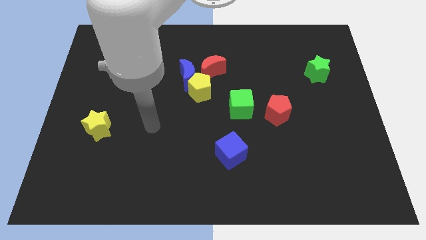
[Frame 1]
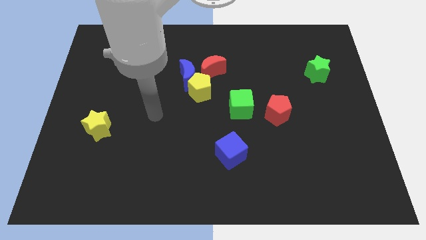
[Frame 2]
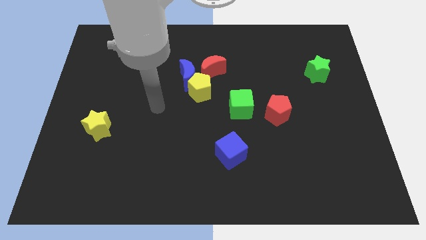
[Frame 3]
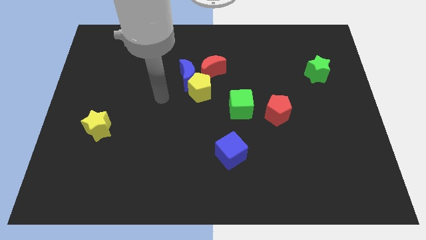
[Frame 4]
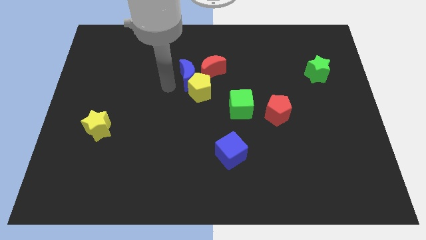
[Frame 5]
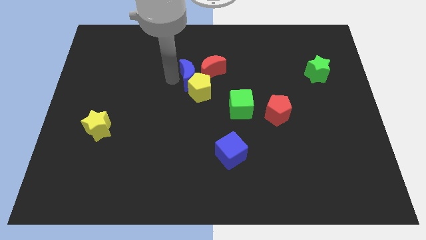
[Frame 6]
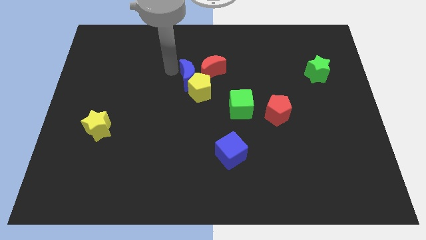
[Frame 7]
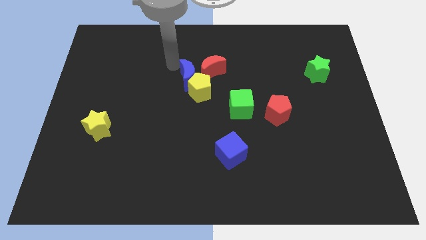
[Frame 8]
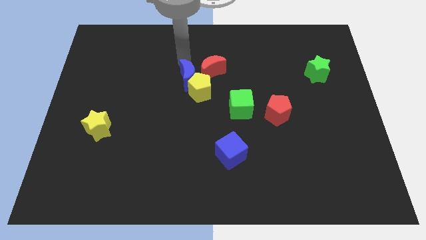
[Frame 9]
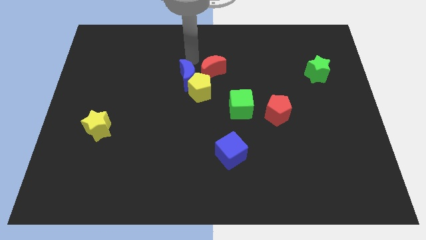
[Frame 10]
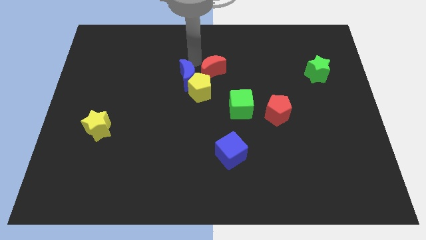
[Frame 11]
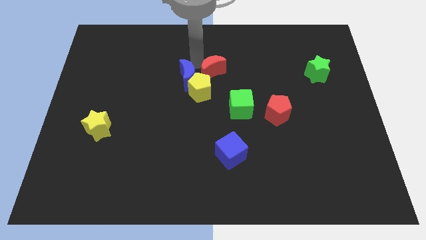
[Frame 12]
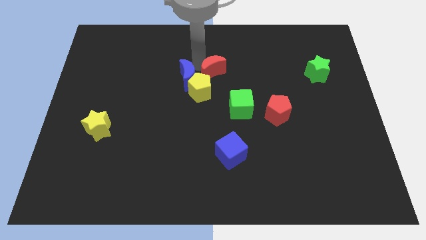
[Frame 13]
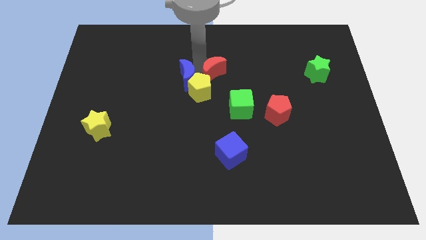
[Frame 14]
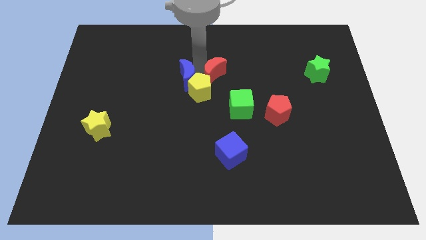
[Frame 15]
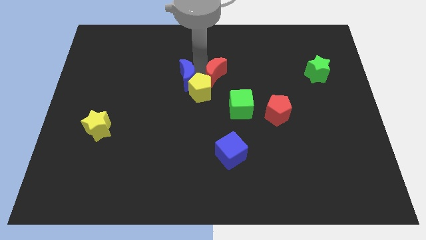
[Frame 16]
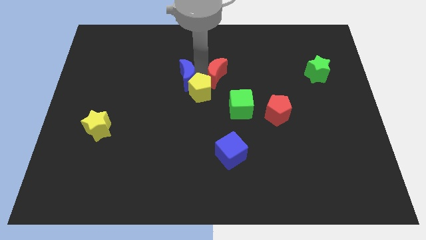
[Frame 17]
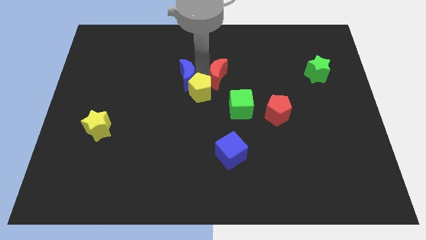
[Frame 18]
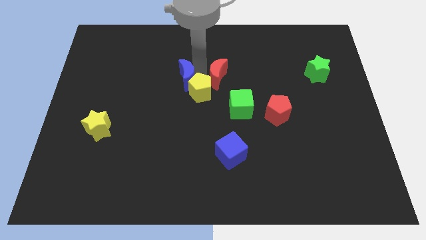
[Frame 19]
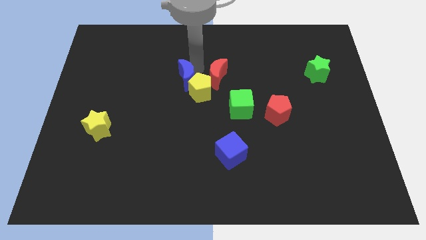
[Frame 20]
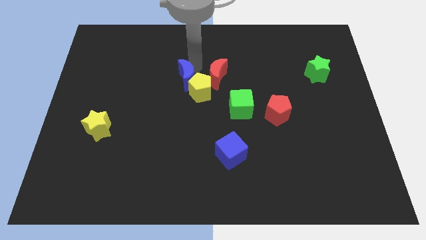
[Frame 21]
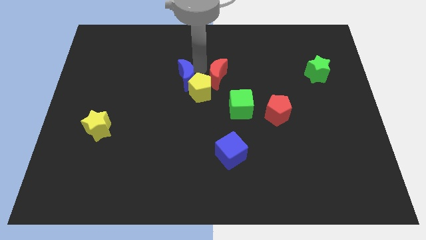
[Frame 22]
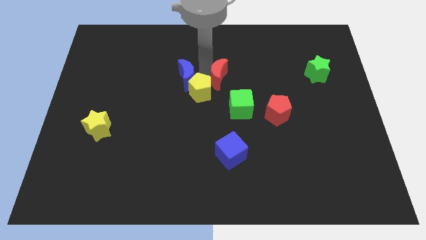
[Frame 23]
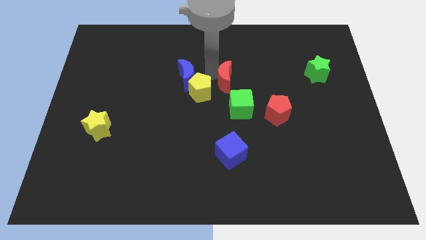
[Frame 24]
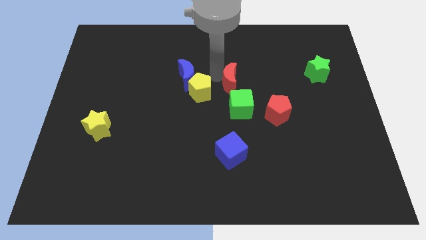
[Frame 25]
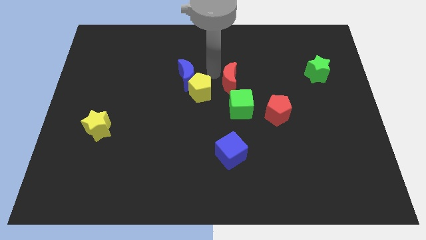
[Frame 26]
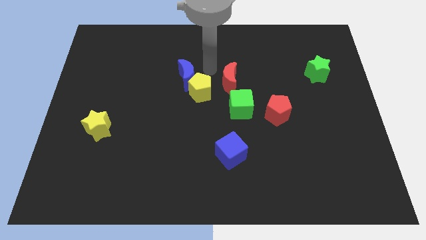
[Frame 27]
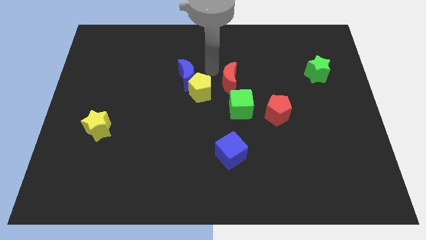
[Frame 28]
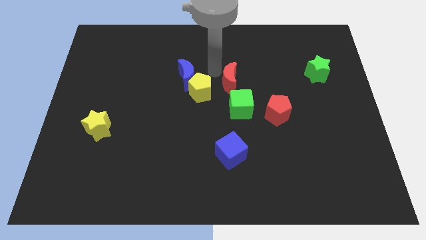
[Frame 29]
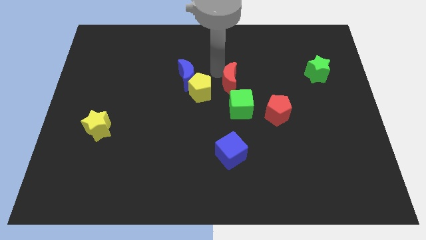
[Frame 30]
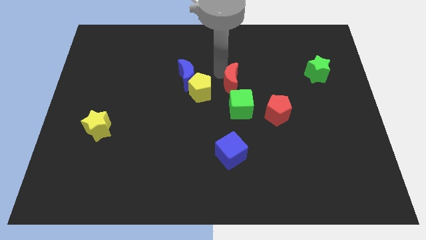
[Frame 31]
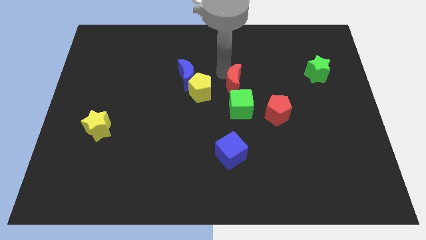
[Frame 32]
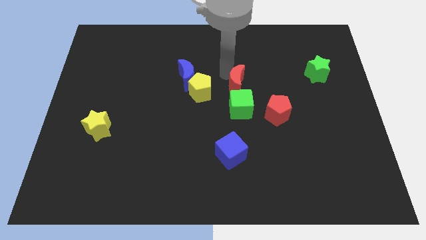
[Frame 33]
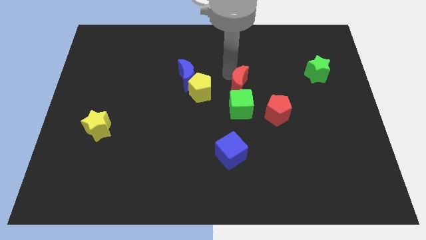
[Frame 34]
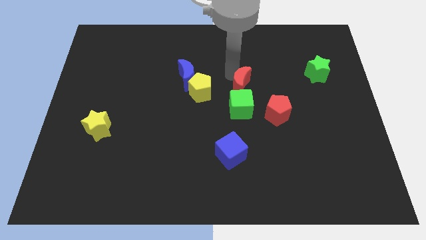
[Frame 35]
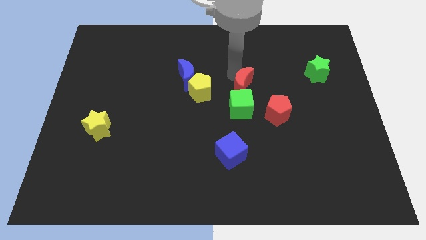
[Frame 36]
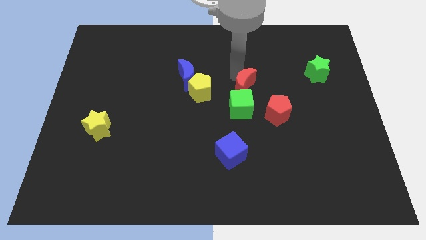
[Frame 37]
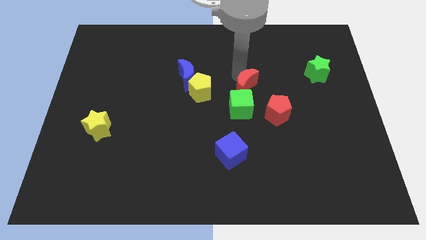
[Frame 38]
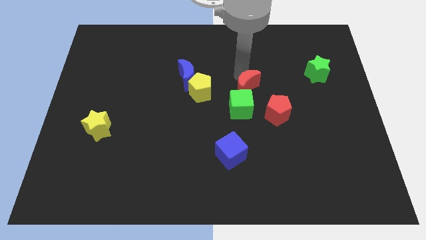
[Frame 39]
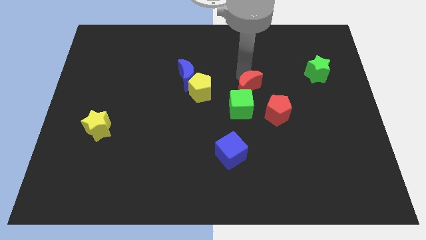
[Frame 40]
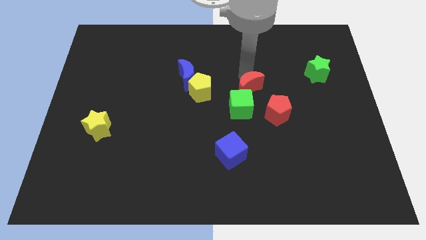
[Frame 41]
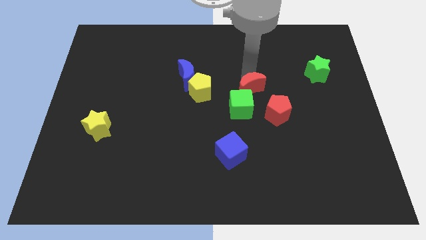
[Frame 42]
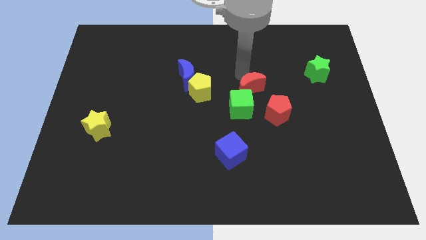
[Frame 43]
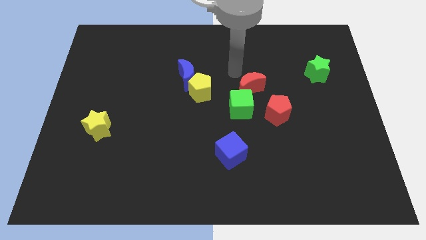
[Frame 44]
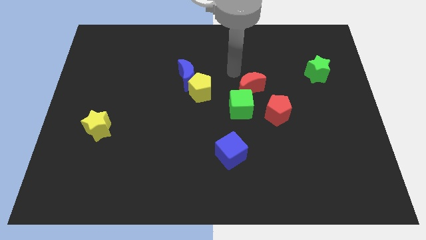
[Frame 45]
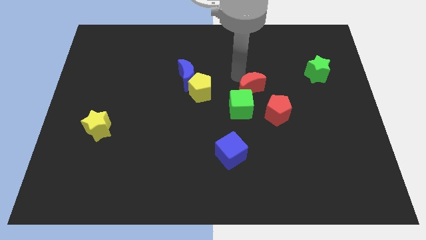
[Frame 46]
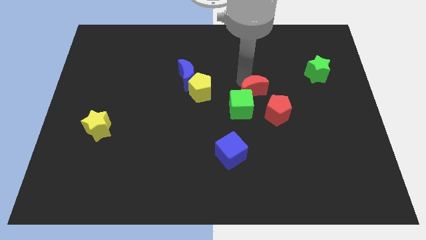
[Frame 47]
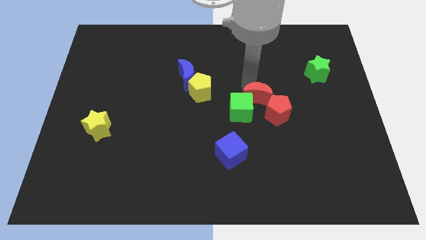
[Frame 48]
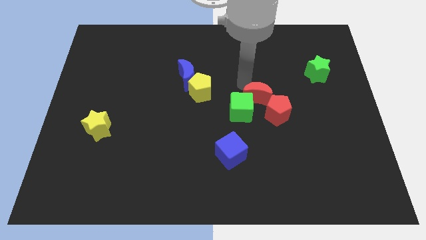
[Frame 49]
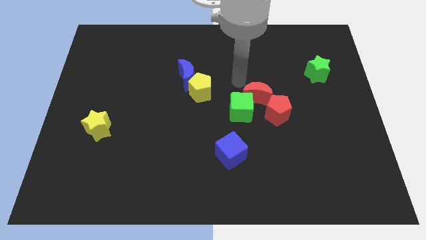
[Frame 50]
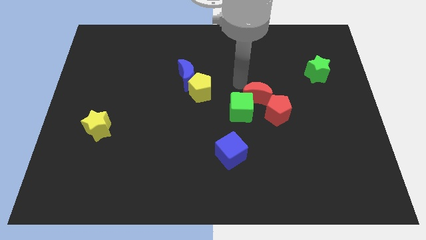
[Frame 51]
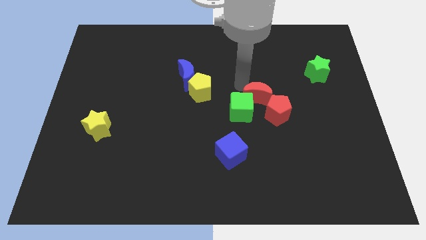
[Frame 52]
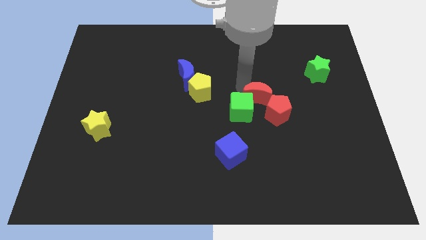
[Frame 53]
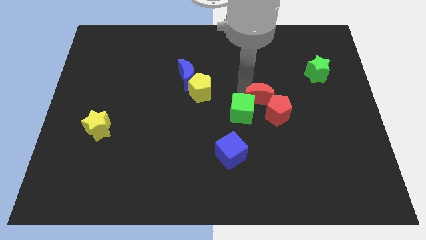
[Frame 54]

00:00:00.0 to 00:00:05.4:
put the red moon towards the red pentagon

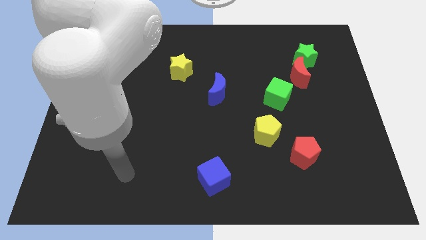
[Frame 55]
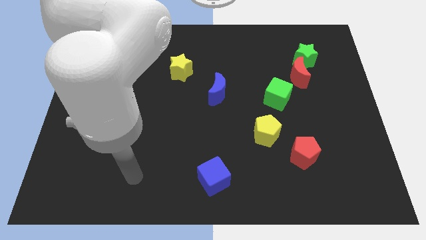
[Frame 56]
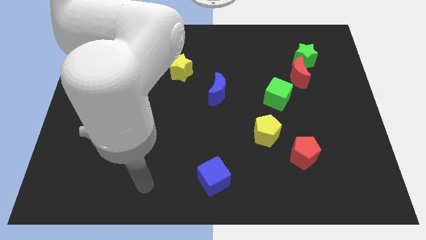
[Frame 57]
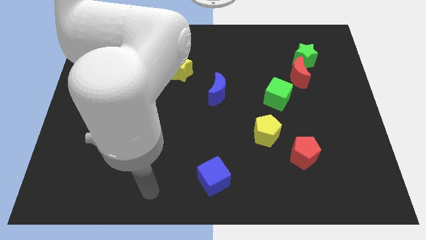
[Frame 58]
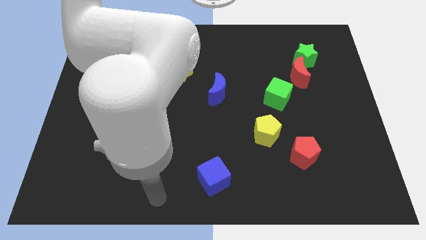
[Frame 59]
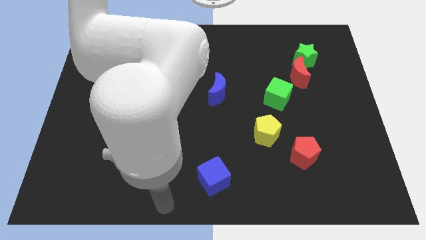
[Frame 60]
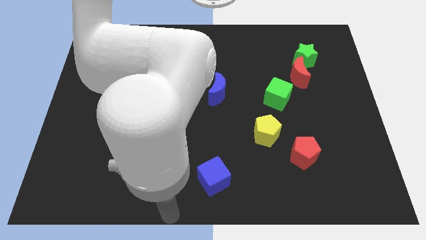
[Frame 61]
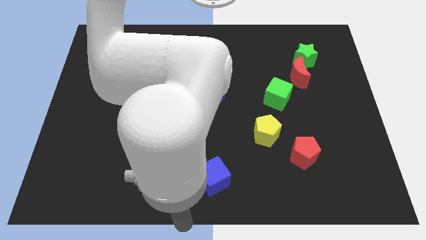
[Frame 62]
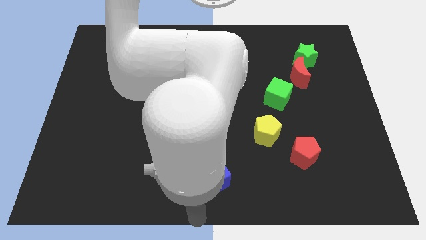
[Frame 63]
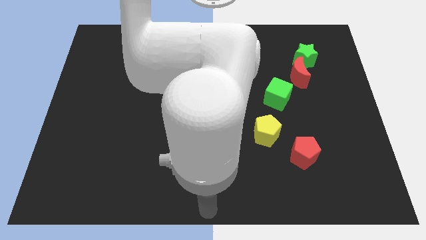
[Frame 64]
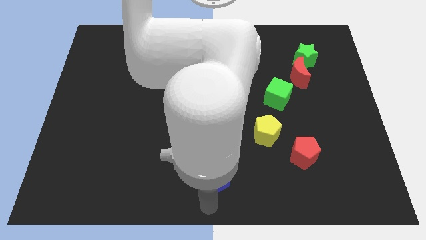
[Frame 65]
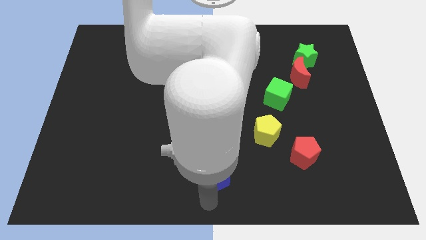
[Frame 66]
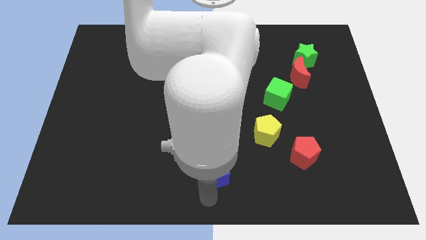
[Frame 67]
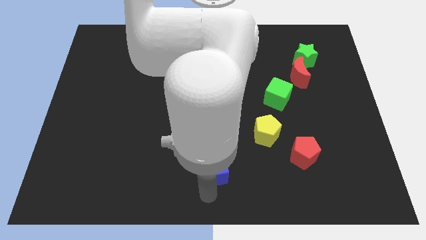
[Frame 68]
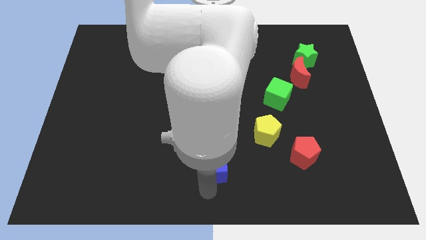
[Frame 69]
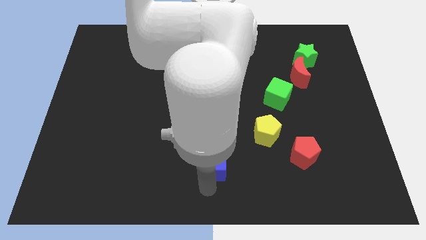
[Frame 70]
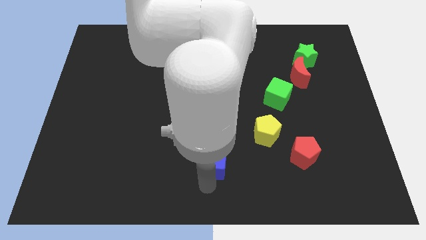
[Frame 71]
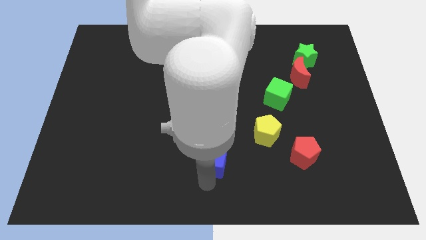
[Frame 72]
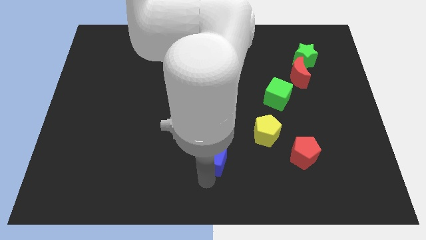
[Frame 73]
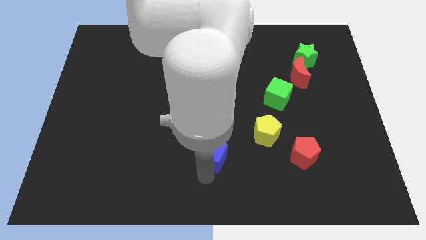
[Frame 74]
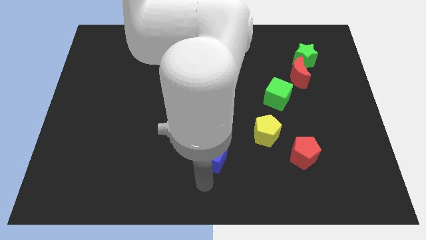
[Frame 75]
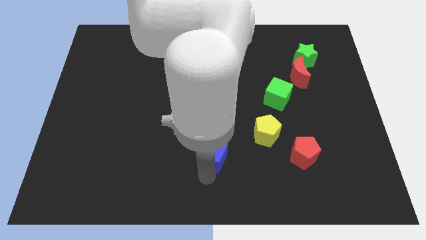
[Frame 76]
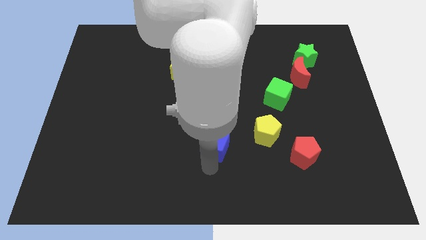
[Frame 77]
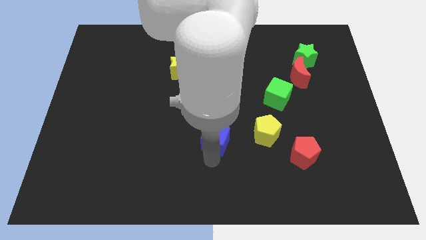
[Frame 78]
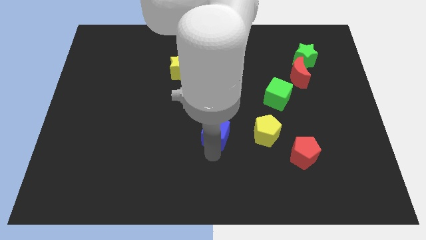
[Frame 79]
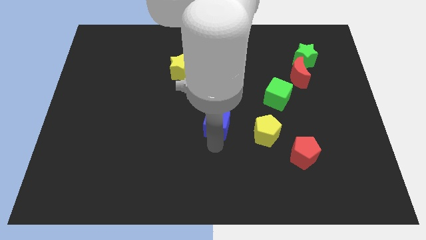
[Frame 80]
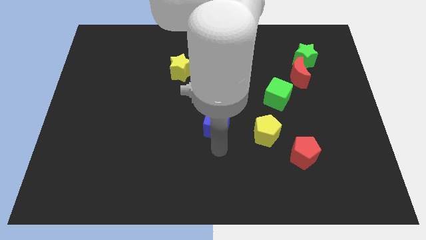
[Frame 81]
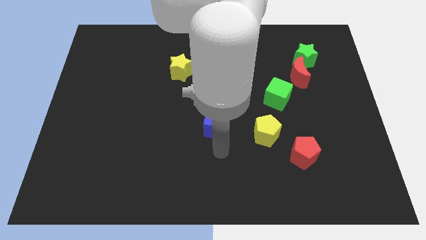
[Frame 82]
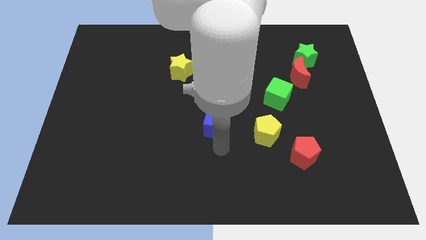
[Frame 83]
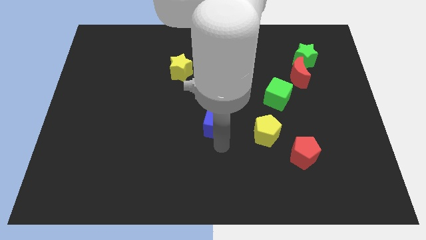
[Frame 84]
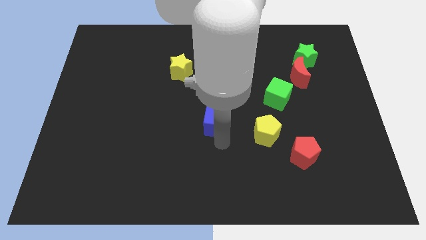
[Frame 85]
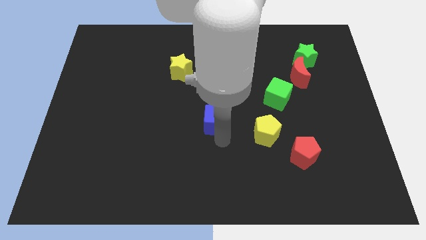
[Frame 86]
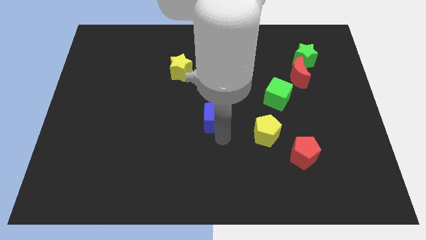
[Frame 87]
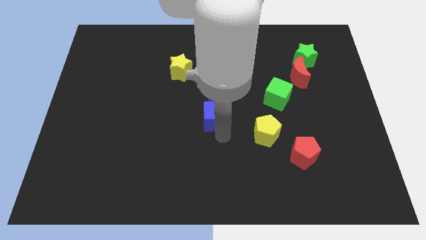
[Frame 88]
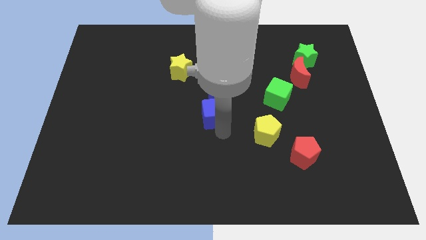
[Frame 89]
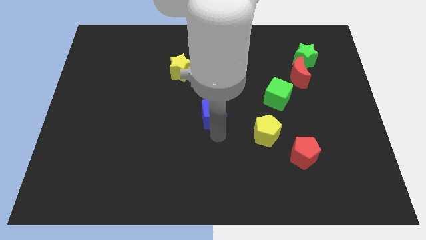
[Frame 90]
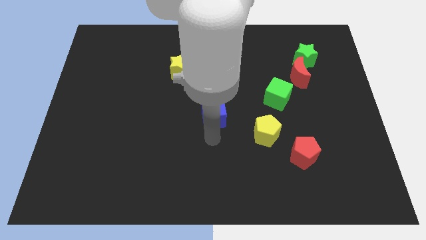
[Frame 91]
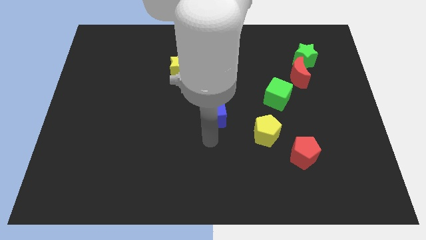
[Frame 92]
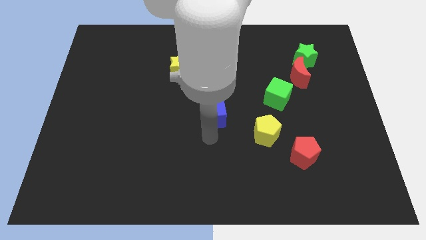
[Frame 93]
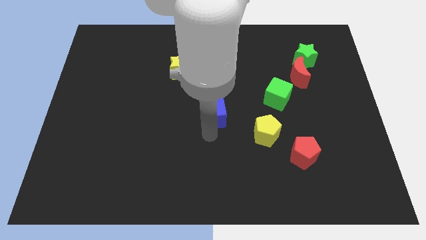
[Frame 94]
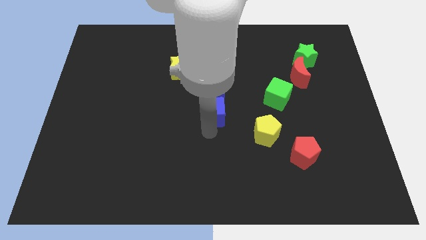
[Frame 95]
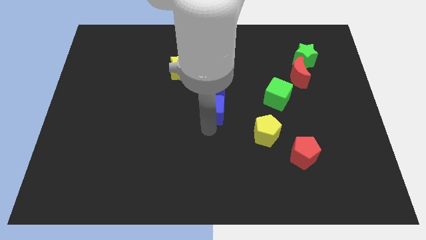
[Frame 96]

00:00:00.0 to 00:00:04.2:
slide the blue cube to the blue moon
